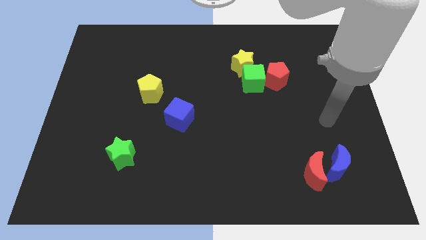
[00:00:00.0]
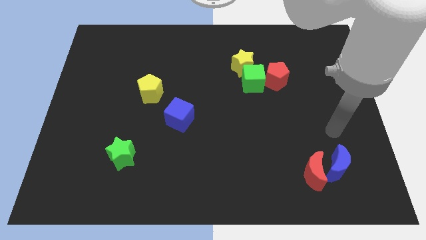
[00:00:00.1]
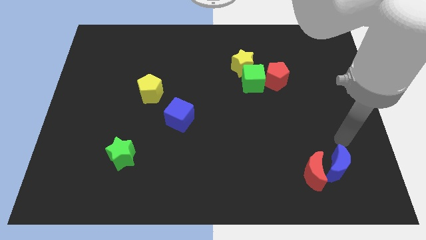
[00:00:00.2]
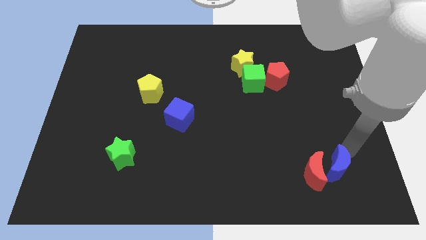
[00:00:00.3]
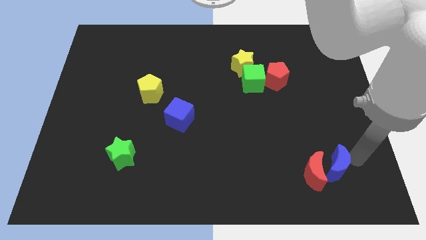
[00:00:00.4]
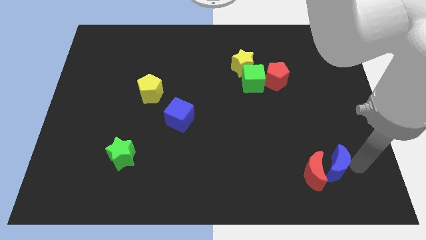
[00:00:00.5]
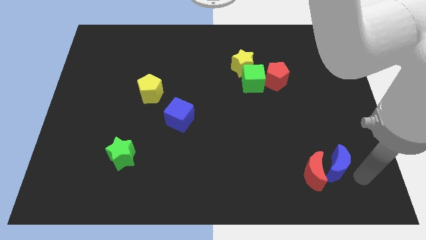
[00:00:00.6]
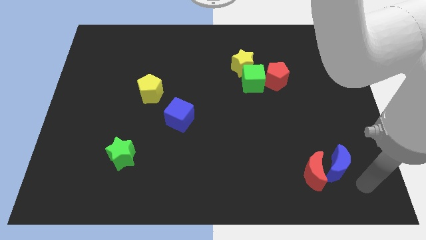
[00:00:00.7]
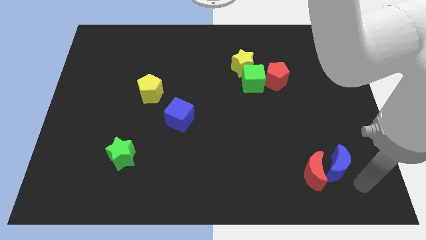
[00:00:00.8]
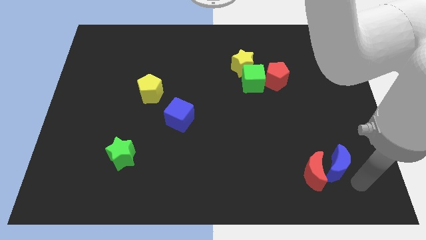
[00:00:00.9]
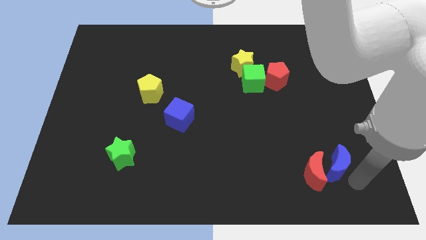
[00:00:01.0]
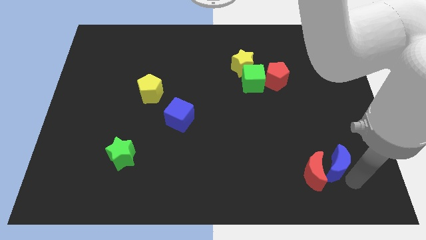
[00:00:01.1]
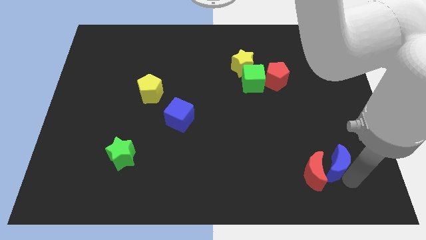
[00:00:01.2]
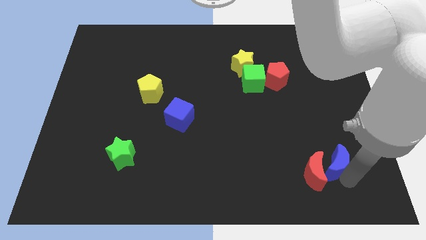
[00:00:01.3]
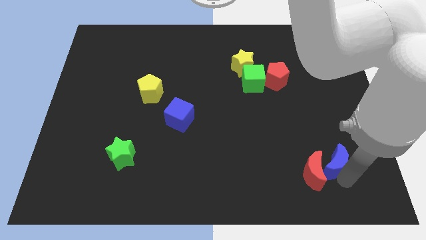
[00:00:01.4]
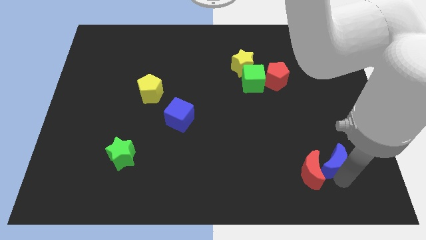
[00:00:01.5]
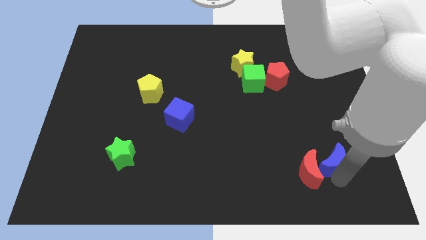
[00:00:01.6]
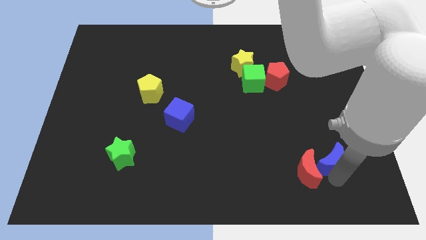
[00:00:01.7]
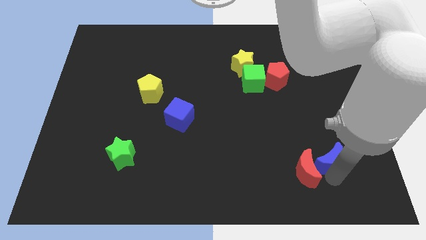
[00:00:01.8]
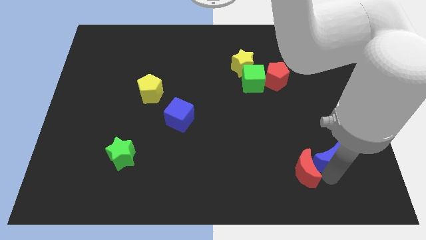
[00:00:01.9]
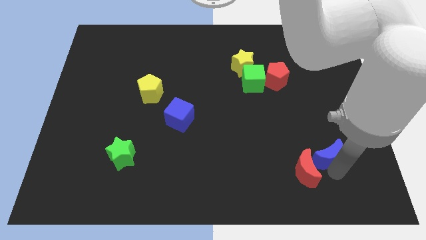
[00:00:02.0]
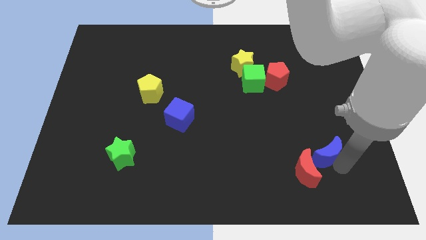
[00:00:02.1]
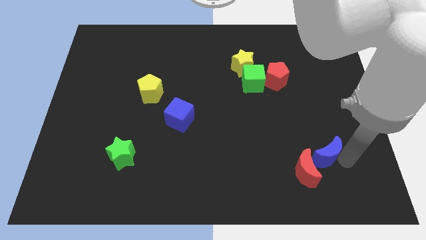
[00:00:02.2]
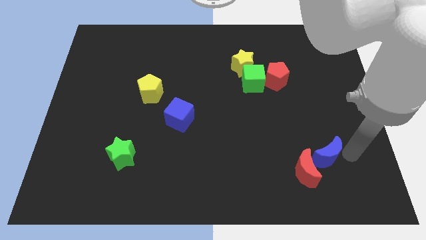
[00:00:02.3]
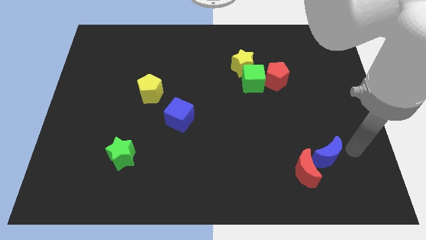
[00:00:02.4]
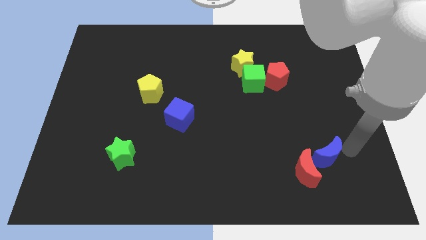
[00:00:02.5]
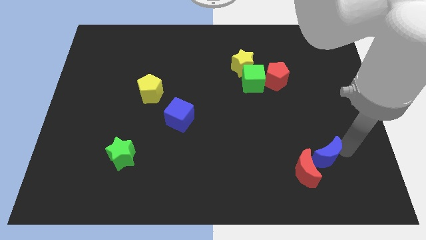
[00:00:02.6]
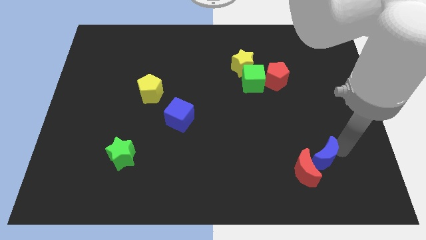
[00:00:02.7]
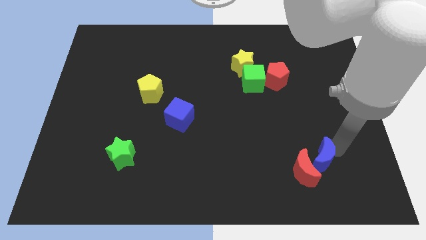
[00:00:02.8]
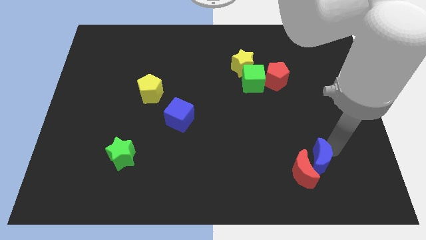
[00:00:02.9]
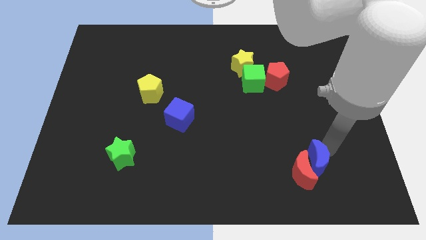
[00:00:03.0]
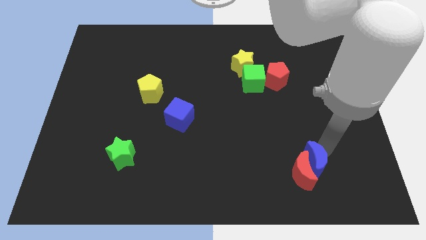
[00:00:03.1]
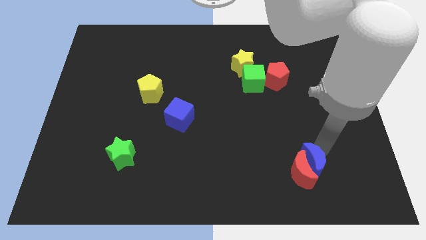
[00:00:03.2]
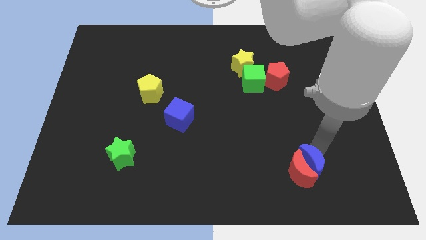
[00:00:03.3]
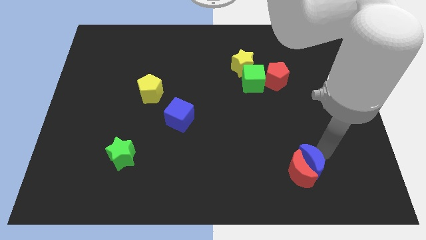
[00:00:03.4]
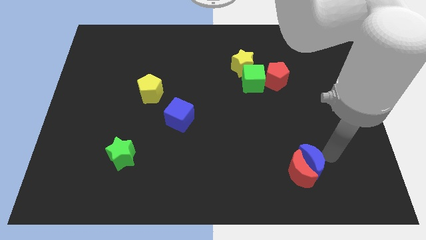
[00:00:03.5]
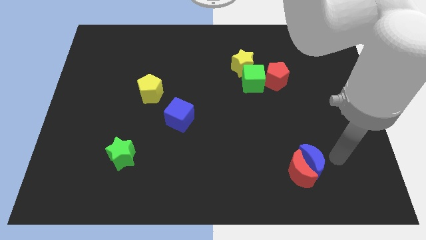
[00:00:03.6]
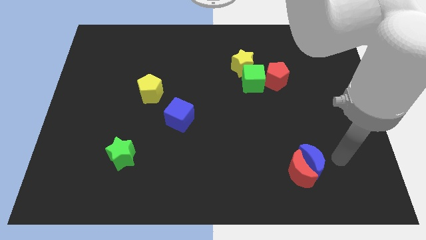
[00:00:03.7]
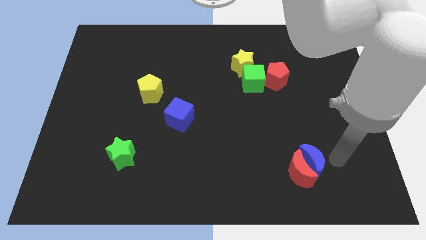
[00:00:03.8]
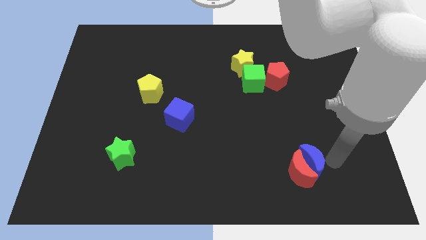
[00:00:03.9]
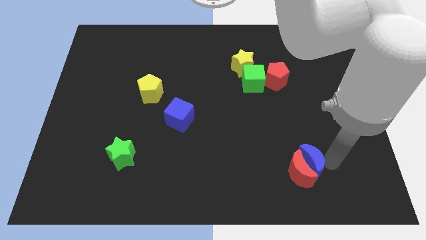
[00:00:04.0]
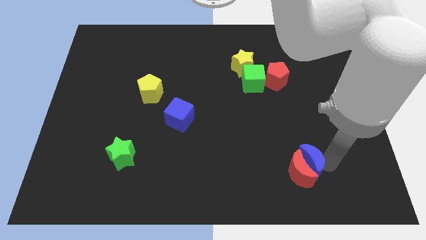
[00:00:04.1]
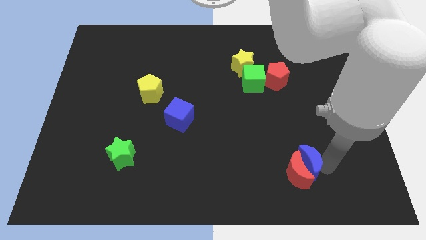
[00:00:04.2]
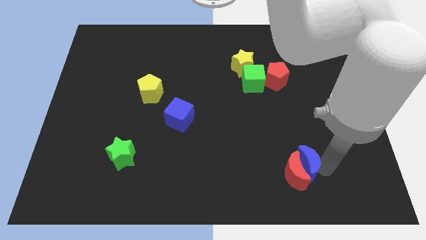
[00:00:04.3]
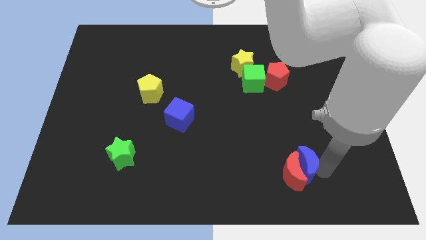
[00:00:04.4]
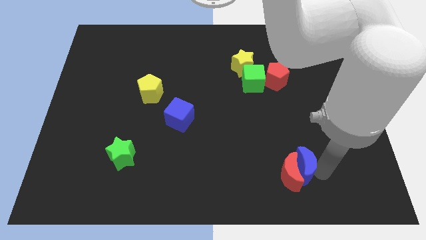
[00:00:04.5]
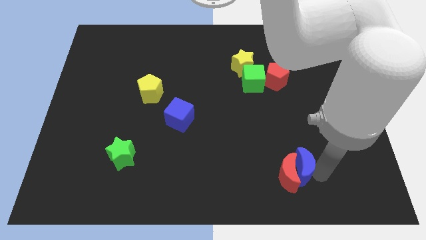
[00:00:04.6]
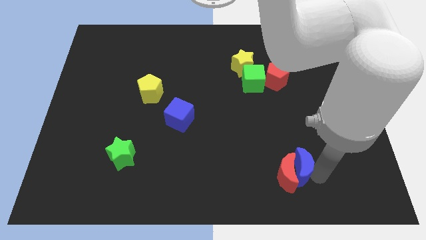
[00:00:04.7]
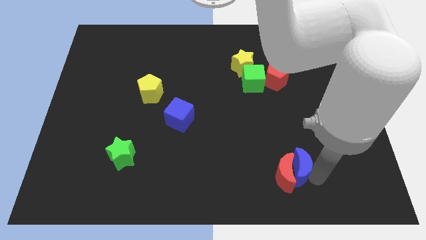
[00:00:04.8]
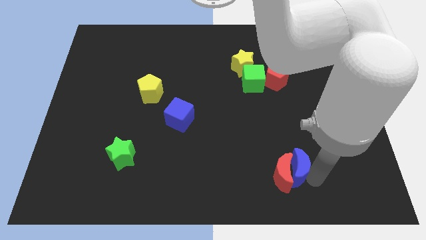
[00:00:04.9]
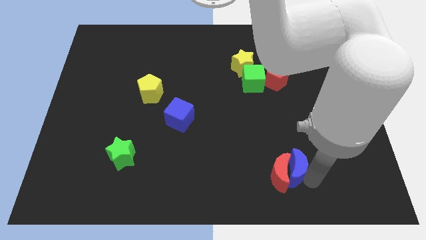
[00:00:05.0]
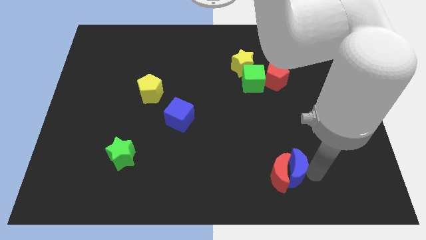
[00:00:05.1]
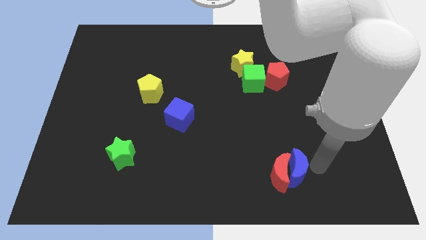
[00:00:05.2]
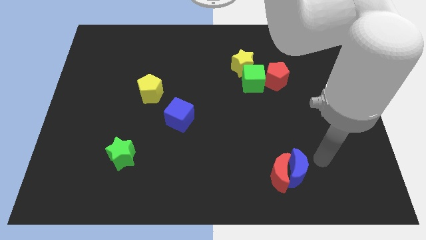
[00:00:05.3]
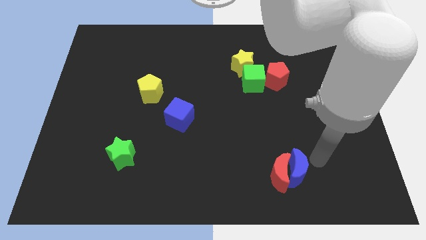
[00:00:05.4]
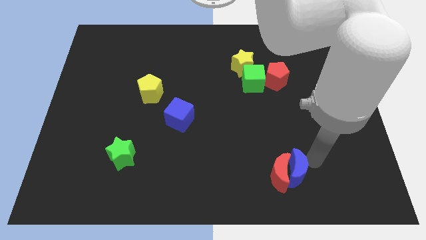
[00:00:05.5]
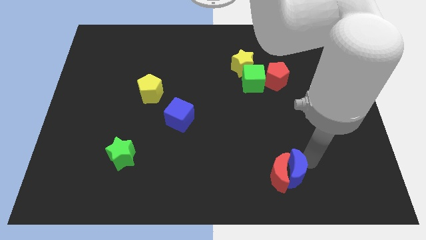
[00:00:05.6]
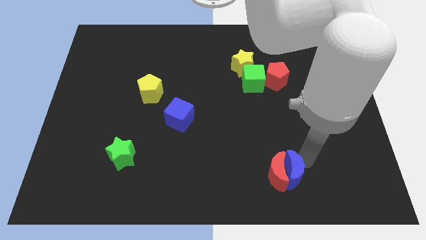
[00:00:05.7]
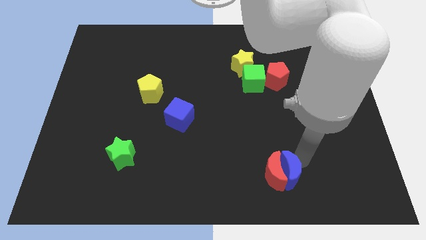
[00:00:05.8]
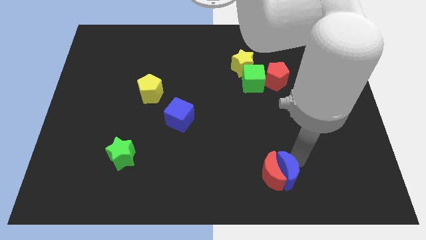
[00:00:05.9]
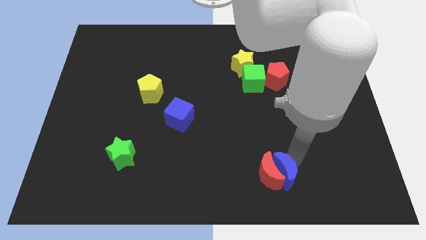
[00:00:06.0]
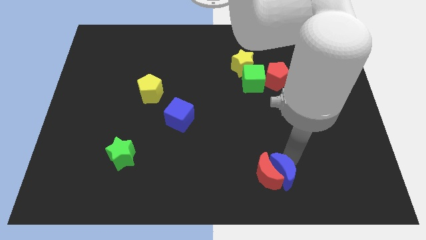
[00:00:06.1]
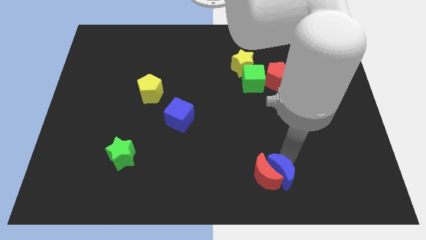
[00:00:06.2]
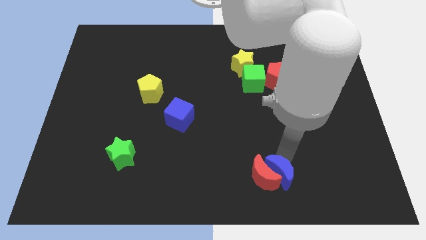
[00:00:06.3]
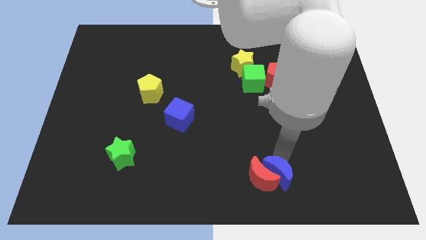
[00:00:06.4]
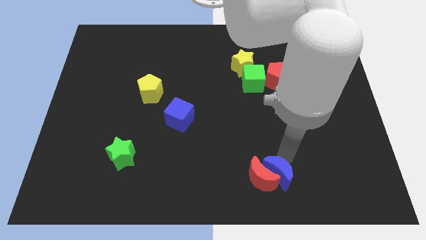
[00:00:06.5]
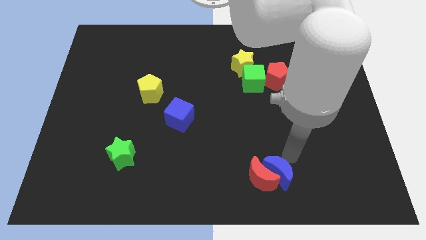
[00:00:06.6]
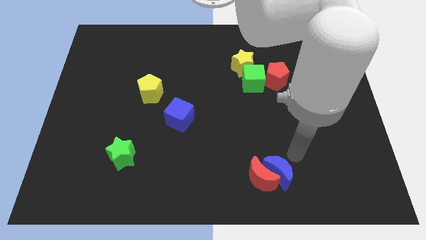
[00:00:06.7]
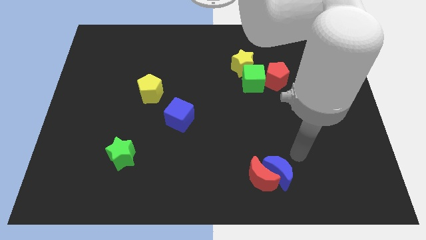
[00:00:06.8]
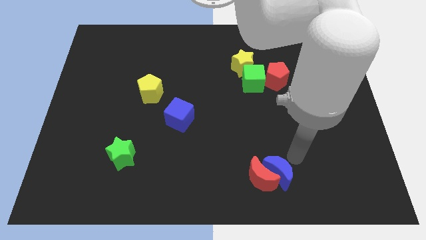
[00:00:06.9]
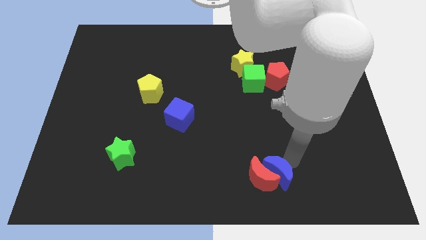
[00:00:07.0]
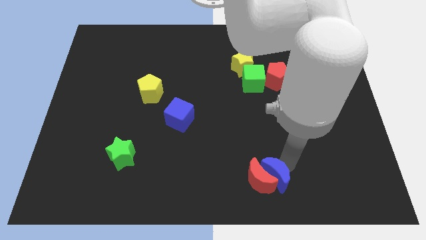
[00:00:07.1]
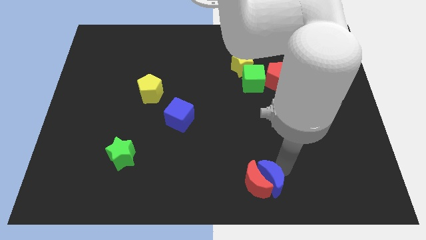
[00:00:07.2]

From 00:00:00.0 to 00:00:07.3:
move the blue moon to the bottom side
